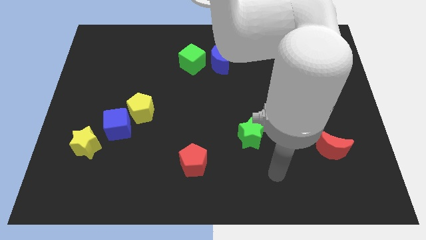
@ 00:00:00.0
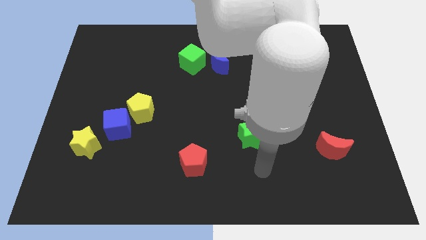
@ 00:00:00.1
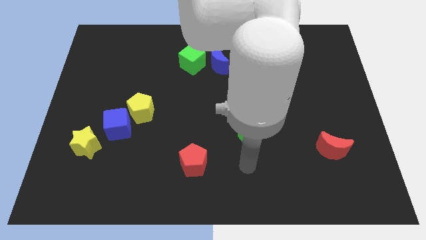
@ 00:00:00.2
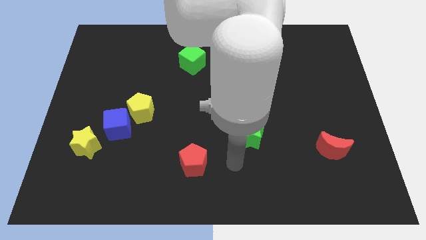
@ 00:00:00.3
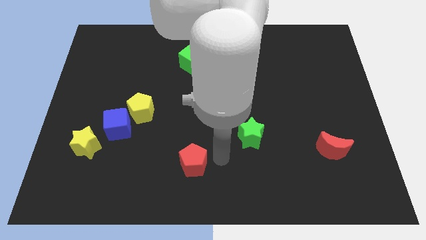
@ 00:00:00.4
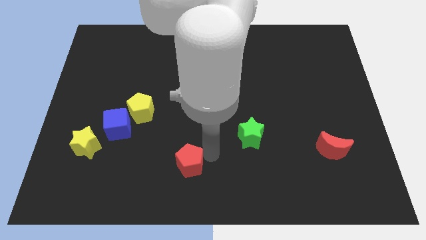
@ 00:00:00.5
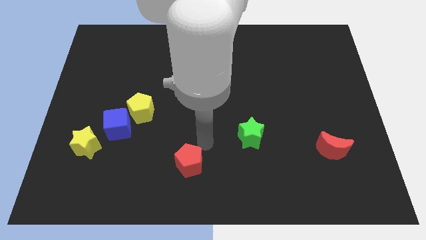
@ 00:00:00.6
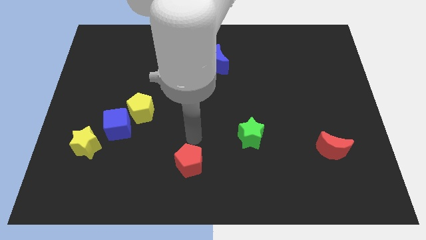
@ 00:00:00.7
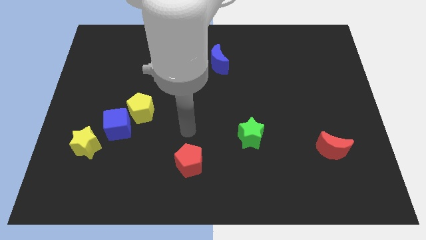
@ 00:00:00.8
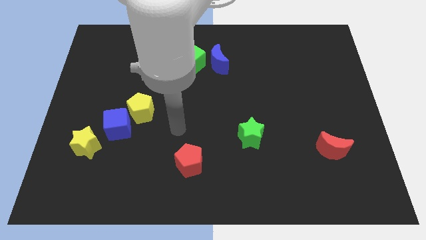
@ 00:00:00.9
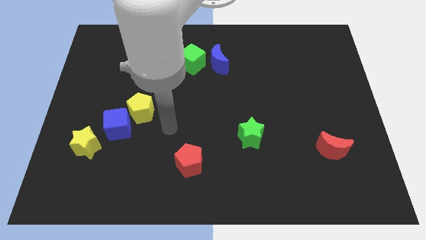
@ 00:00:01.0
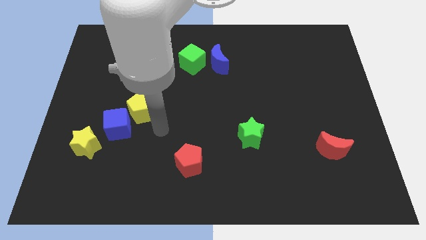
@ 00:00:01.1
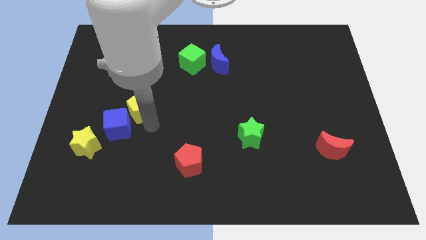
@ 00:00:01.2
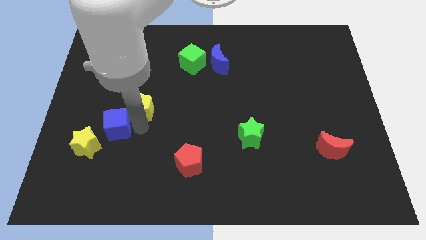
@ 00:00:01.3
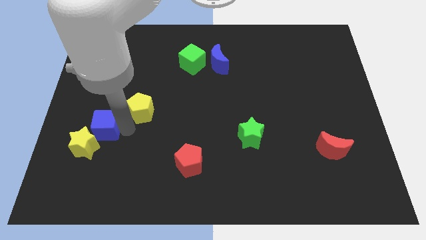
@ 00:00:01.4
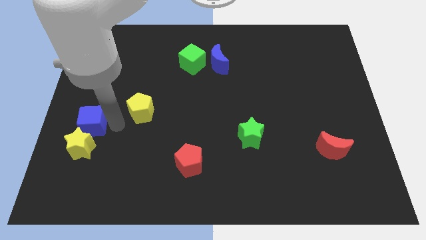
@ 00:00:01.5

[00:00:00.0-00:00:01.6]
pull the yellow pentagon apart from the blue cube

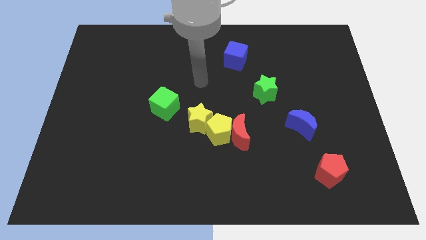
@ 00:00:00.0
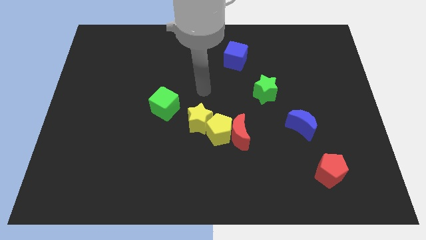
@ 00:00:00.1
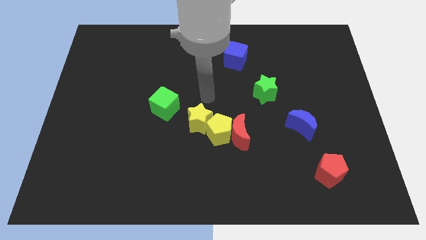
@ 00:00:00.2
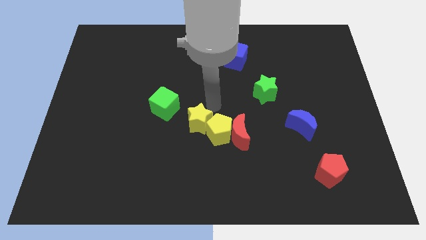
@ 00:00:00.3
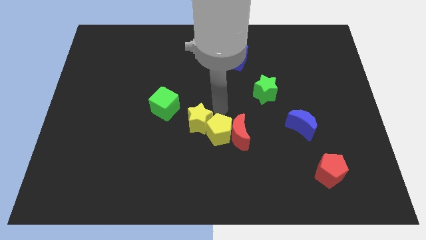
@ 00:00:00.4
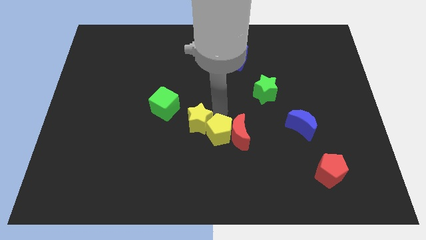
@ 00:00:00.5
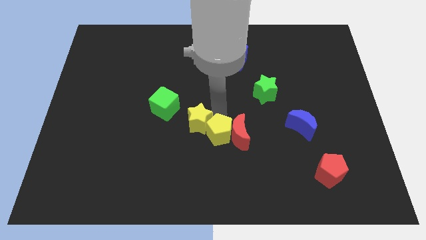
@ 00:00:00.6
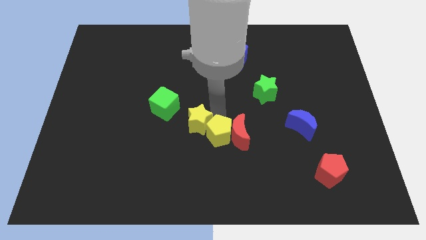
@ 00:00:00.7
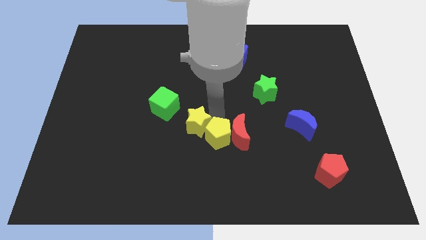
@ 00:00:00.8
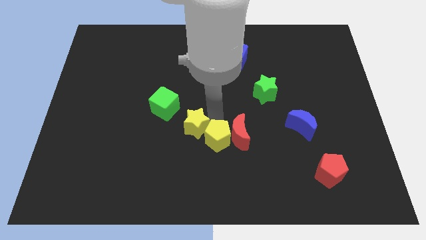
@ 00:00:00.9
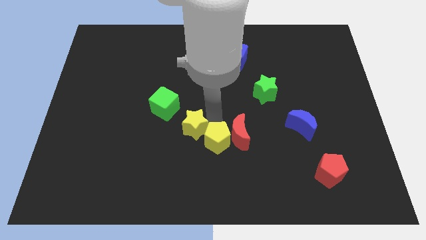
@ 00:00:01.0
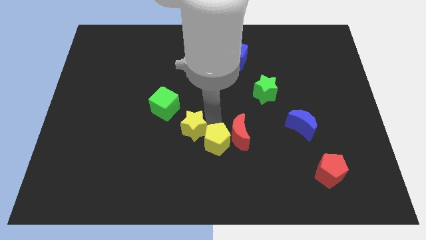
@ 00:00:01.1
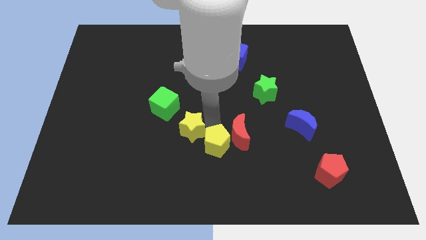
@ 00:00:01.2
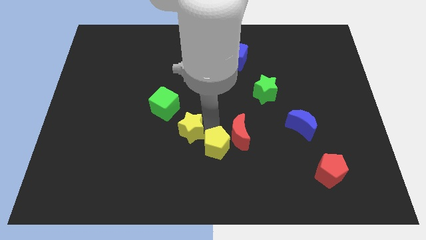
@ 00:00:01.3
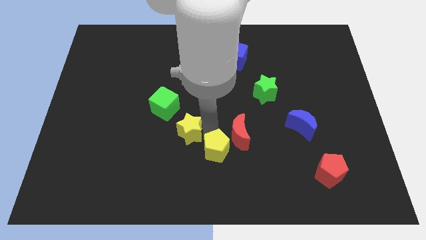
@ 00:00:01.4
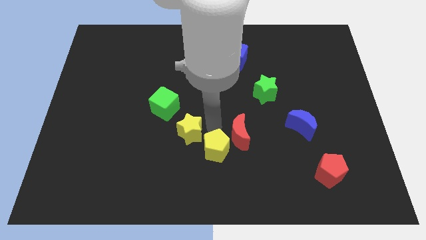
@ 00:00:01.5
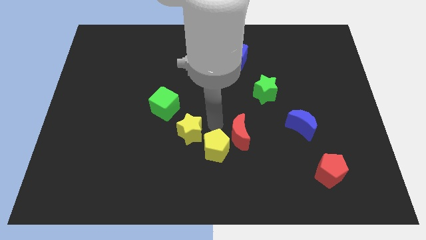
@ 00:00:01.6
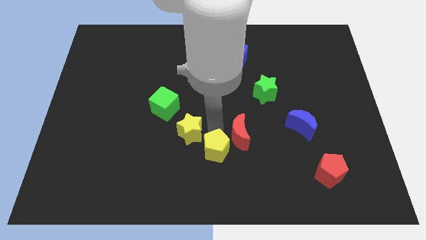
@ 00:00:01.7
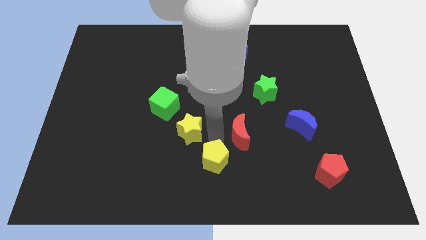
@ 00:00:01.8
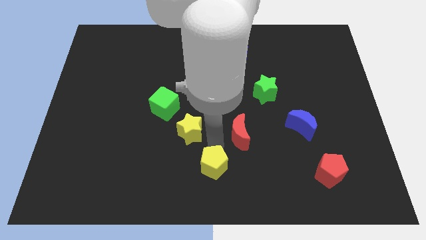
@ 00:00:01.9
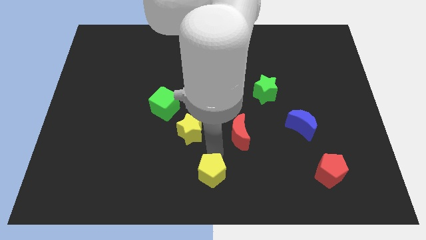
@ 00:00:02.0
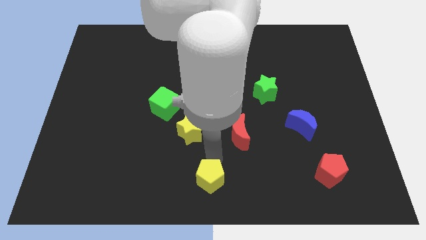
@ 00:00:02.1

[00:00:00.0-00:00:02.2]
pull the yellow pentagon apart from the red moon and yellow star

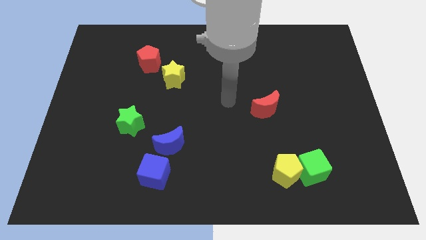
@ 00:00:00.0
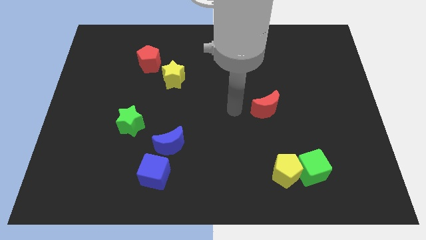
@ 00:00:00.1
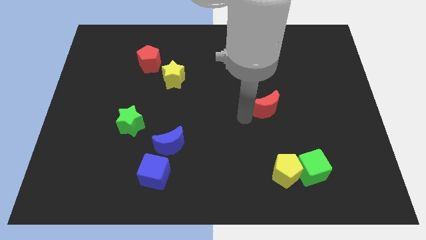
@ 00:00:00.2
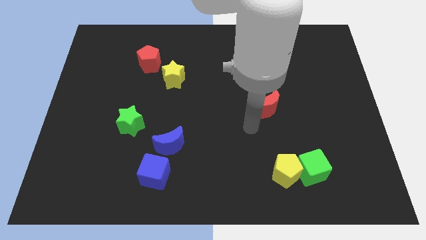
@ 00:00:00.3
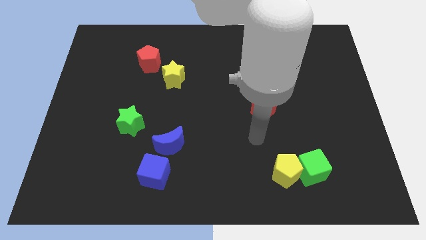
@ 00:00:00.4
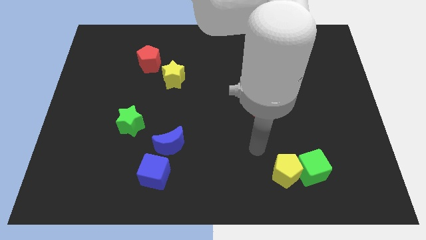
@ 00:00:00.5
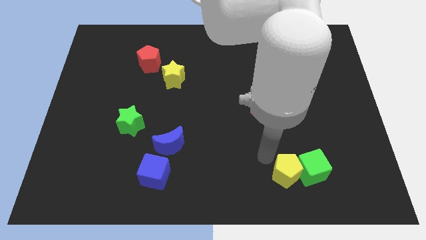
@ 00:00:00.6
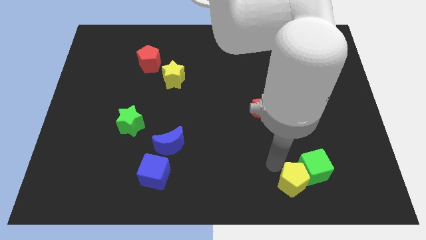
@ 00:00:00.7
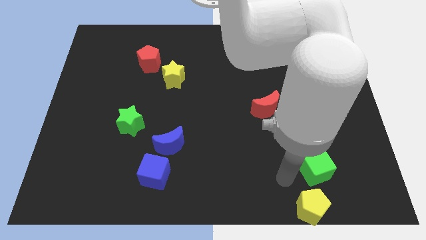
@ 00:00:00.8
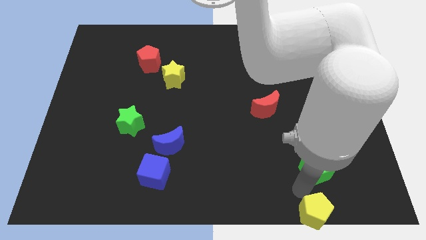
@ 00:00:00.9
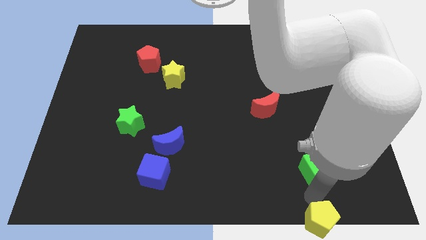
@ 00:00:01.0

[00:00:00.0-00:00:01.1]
separate the green cube from the yellow pentagon

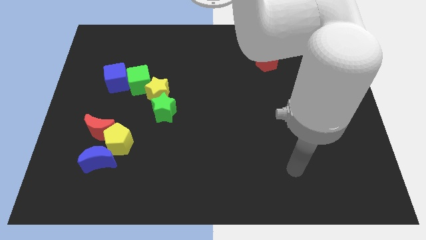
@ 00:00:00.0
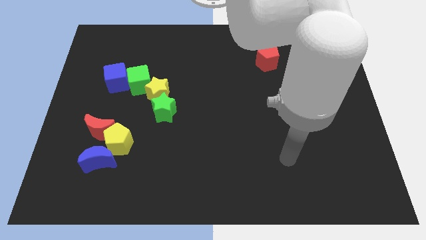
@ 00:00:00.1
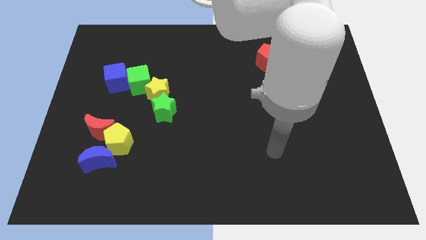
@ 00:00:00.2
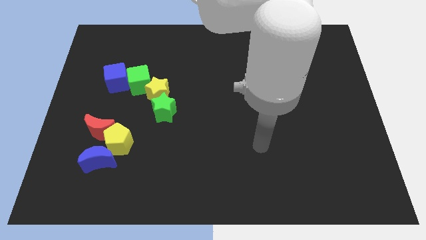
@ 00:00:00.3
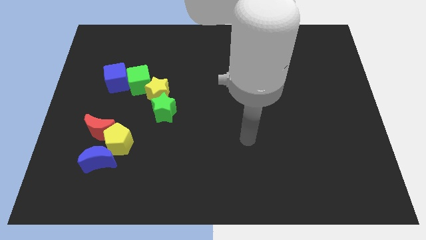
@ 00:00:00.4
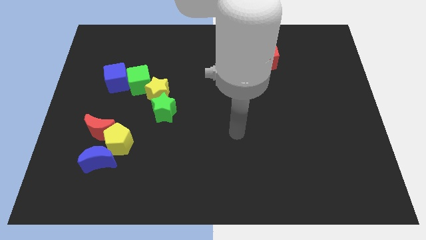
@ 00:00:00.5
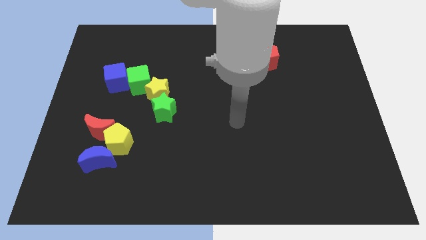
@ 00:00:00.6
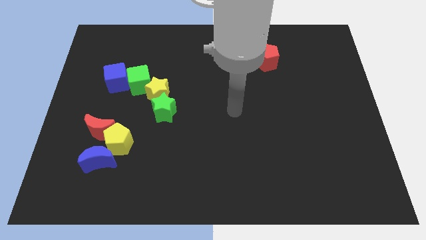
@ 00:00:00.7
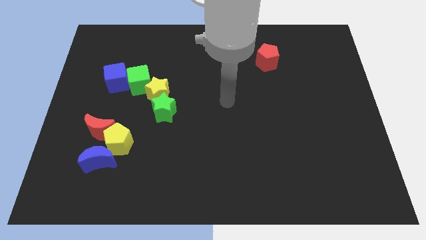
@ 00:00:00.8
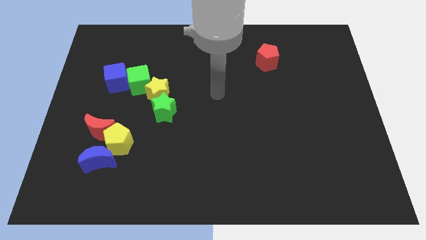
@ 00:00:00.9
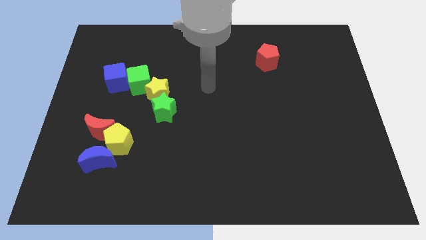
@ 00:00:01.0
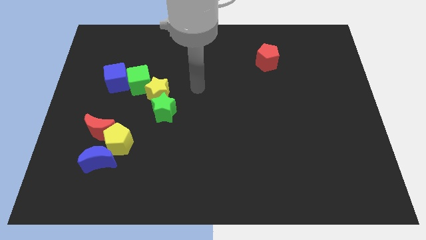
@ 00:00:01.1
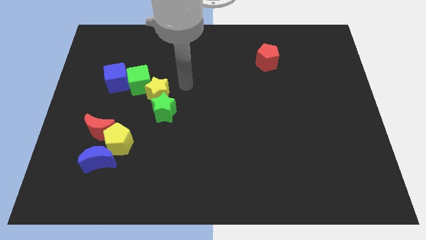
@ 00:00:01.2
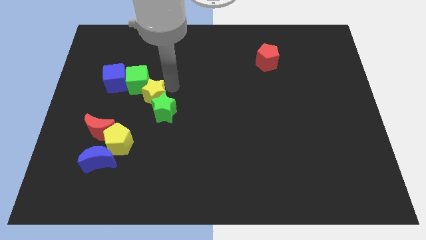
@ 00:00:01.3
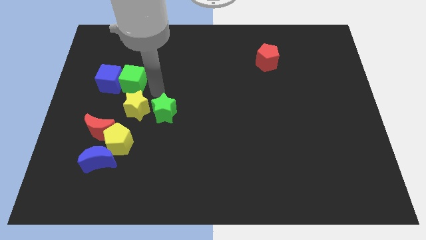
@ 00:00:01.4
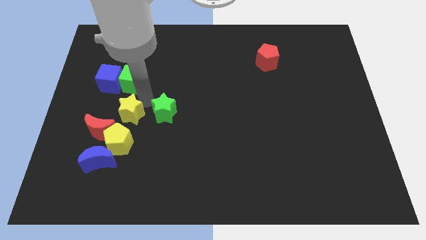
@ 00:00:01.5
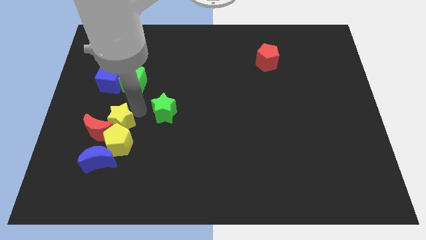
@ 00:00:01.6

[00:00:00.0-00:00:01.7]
pull the green star apart from the yellow star

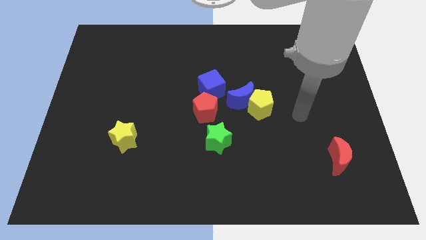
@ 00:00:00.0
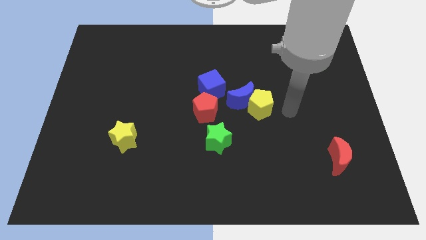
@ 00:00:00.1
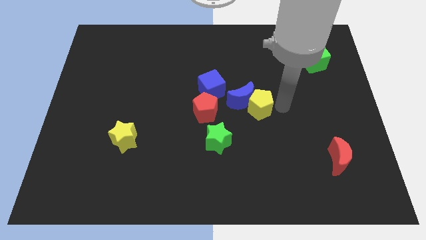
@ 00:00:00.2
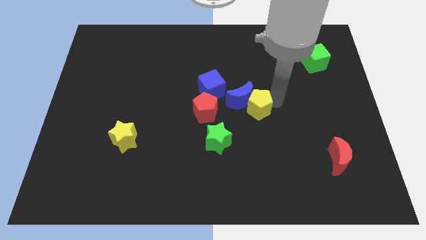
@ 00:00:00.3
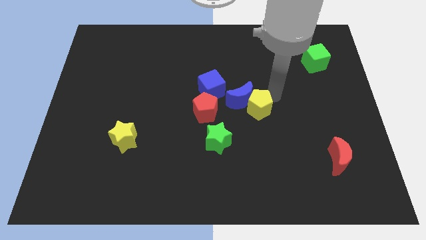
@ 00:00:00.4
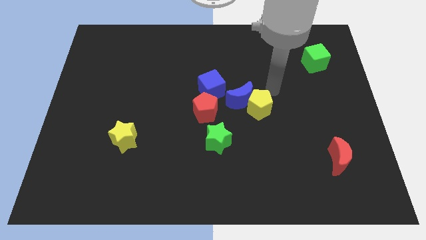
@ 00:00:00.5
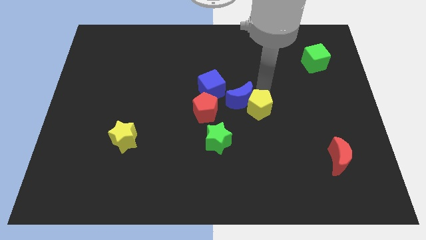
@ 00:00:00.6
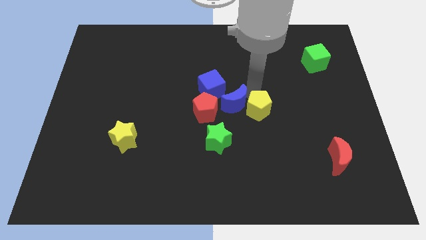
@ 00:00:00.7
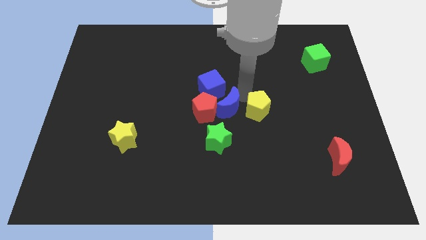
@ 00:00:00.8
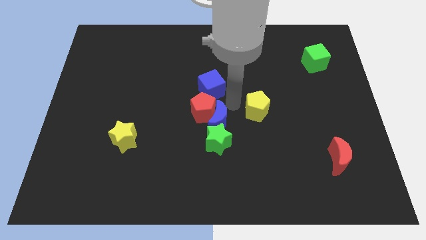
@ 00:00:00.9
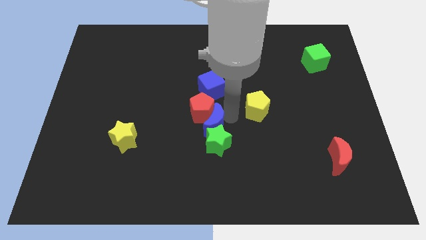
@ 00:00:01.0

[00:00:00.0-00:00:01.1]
separate the yellow pentagon from the blue moon

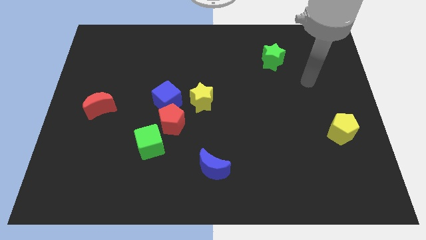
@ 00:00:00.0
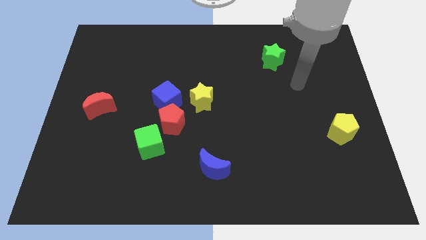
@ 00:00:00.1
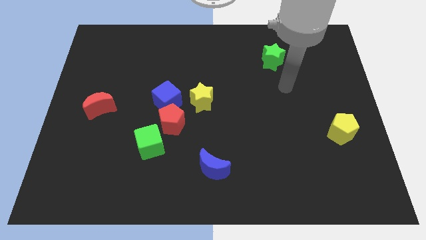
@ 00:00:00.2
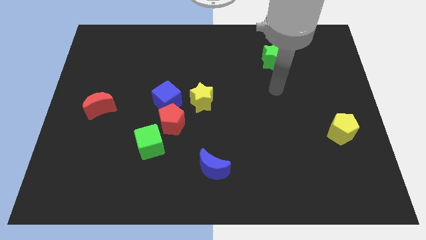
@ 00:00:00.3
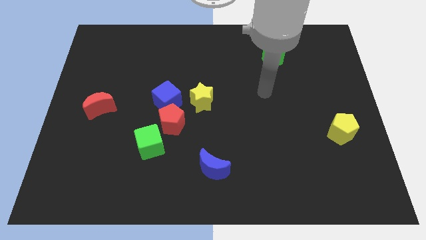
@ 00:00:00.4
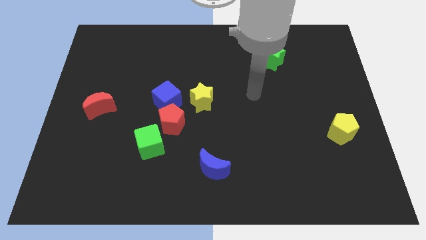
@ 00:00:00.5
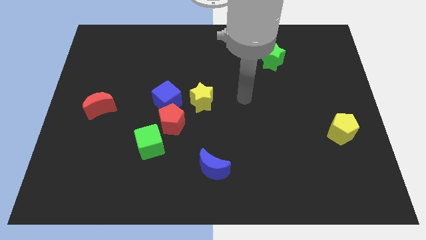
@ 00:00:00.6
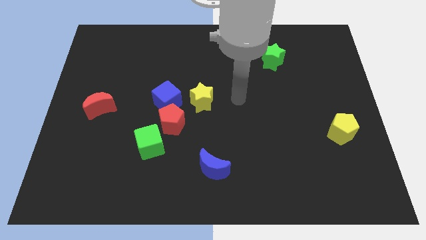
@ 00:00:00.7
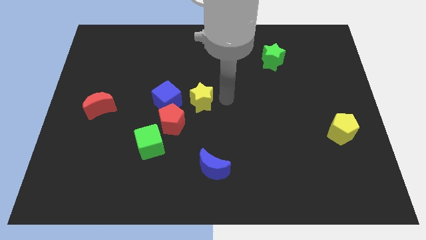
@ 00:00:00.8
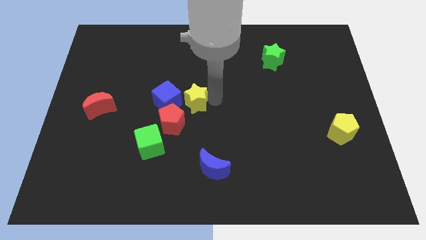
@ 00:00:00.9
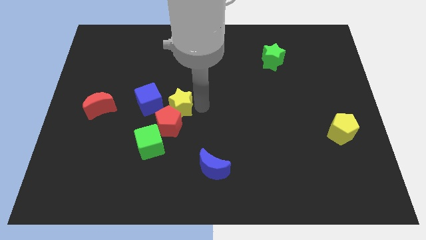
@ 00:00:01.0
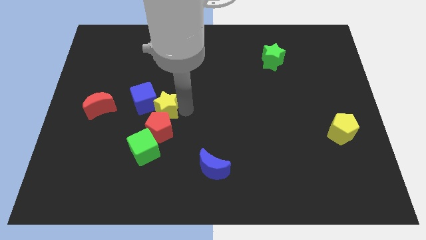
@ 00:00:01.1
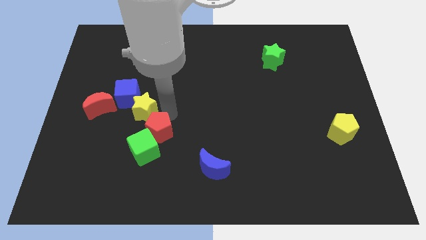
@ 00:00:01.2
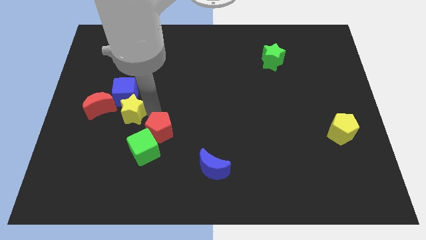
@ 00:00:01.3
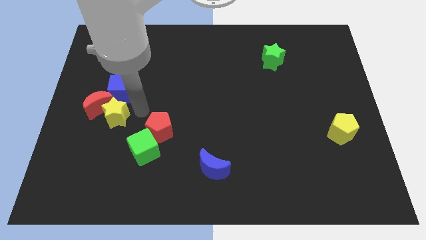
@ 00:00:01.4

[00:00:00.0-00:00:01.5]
separate the blue cube from the red pentagon and yellow star
